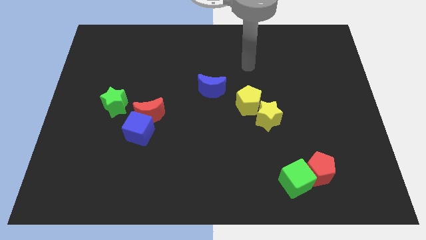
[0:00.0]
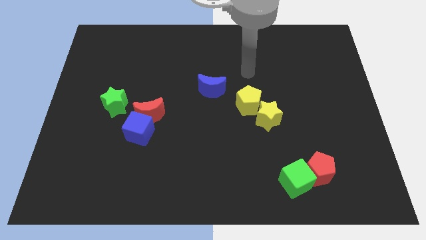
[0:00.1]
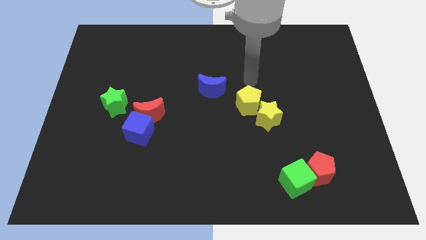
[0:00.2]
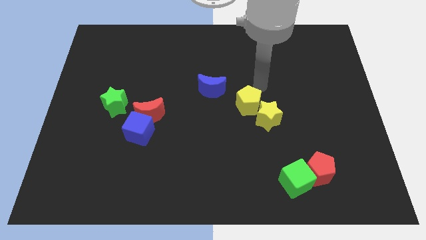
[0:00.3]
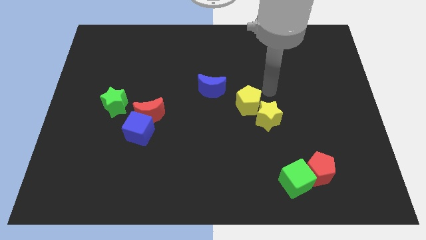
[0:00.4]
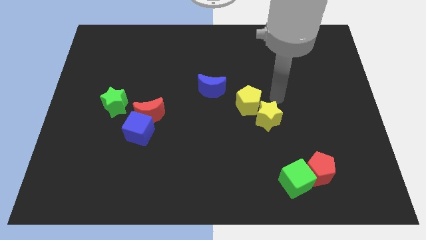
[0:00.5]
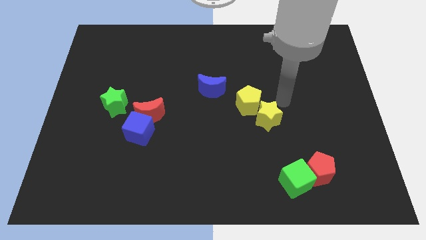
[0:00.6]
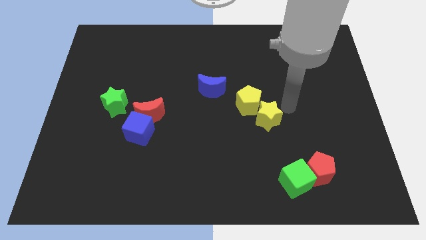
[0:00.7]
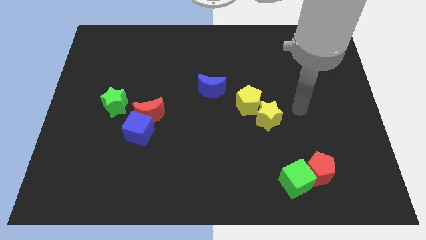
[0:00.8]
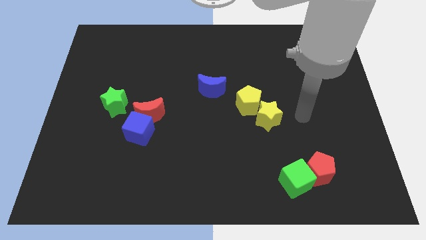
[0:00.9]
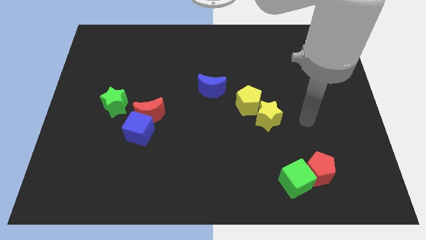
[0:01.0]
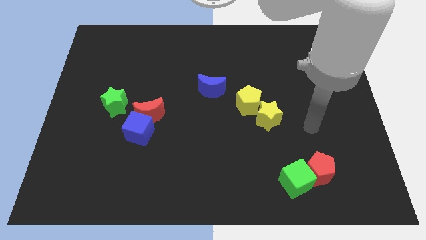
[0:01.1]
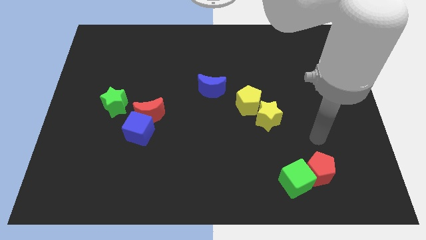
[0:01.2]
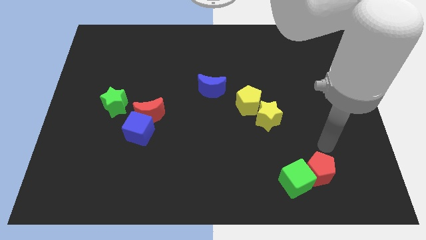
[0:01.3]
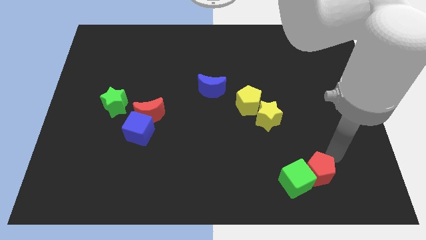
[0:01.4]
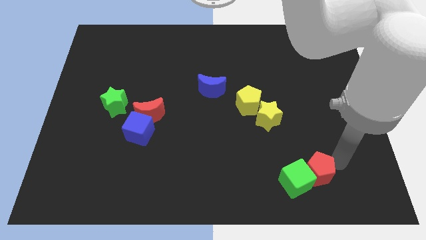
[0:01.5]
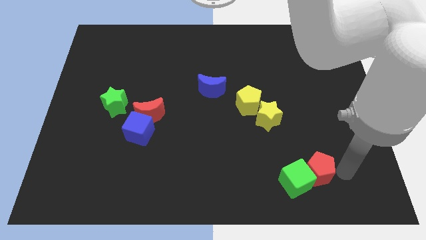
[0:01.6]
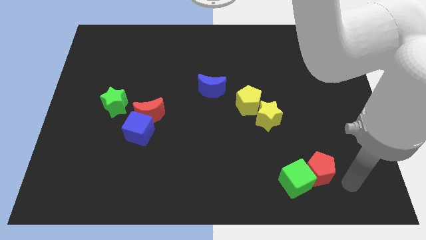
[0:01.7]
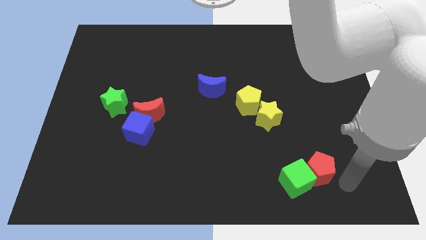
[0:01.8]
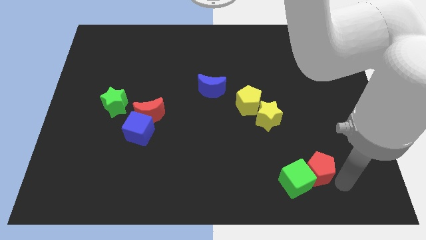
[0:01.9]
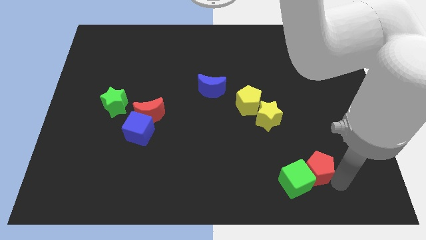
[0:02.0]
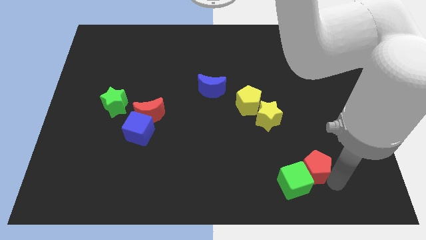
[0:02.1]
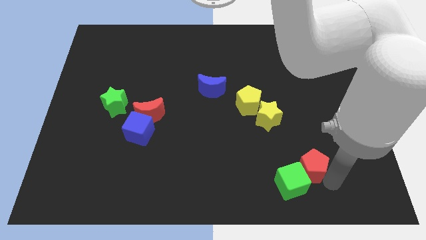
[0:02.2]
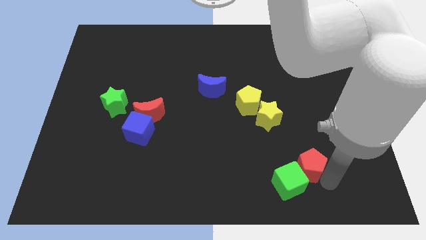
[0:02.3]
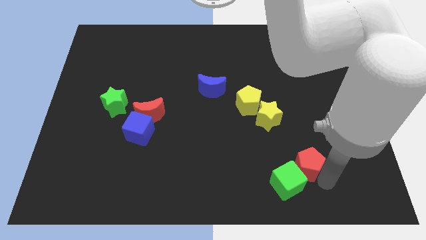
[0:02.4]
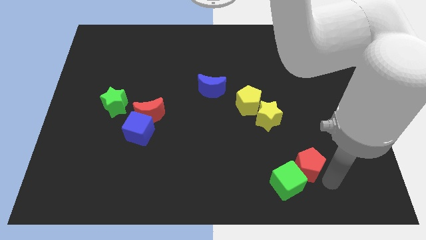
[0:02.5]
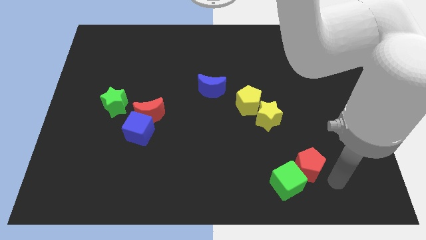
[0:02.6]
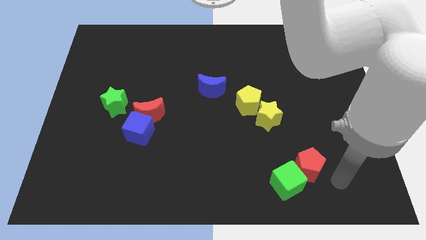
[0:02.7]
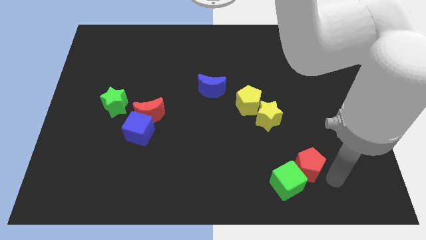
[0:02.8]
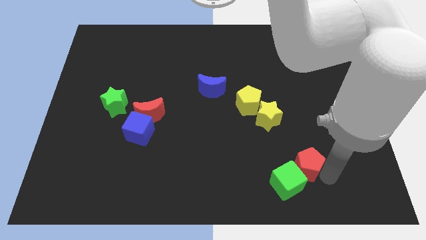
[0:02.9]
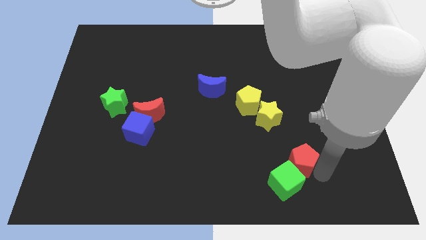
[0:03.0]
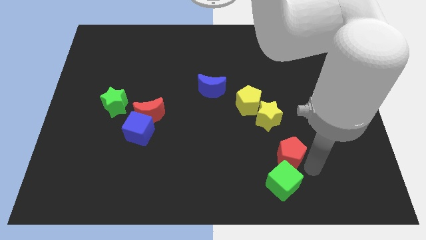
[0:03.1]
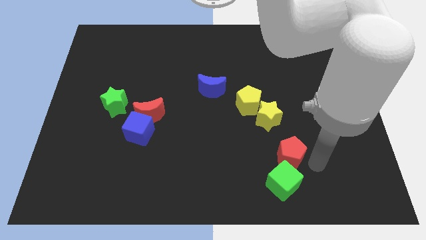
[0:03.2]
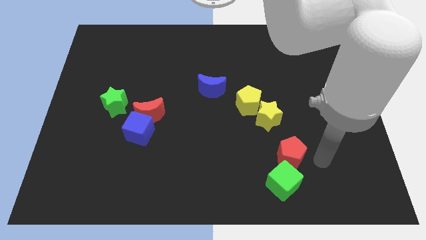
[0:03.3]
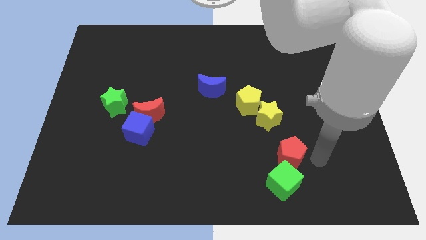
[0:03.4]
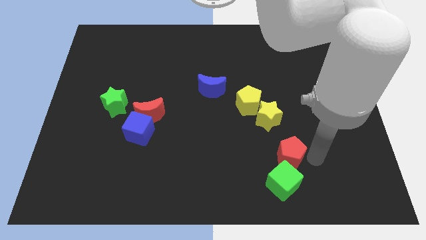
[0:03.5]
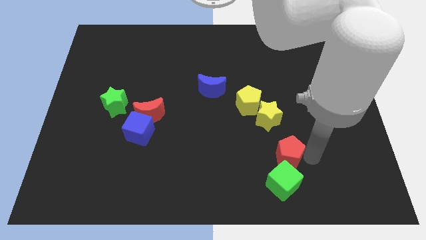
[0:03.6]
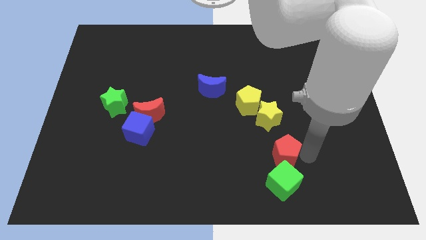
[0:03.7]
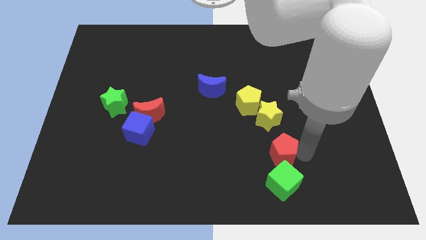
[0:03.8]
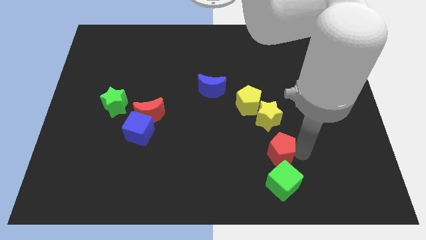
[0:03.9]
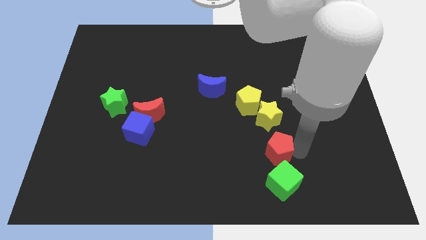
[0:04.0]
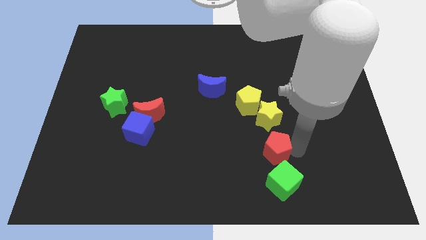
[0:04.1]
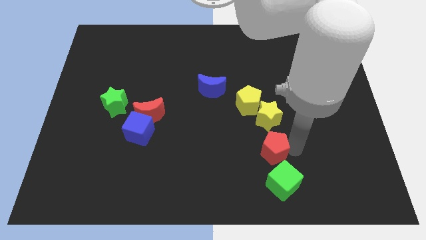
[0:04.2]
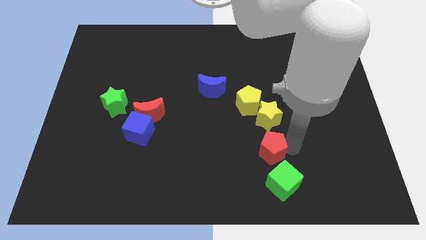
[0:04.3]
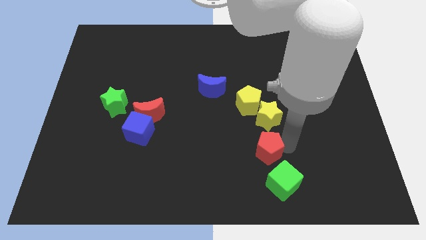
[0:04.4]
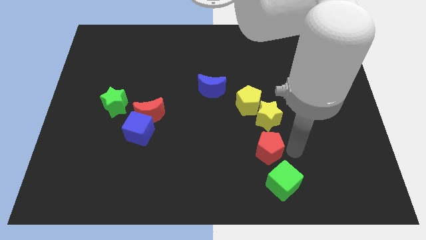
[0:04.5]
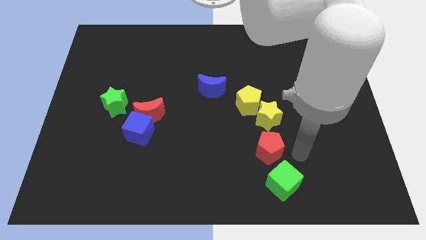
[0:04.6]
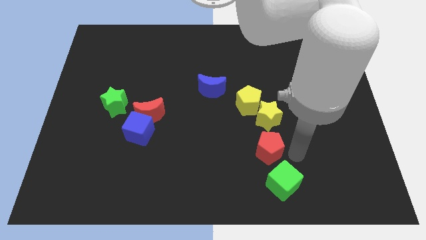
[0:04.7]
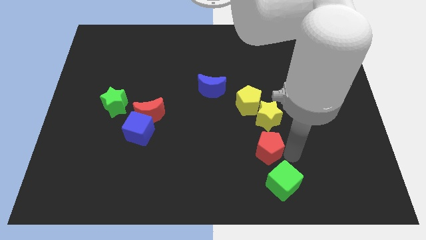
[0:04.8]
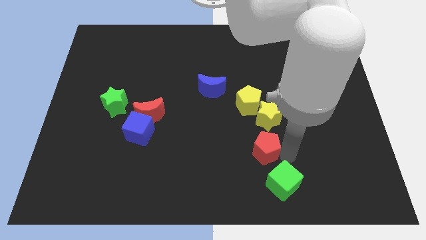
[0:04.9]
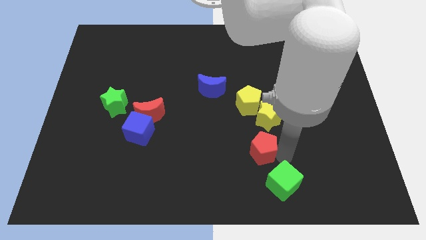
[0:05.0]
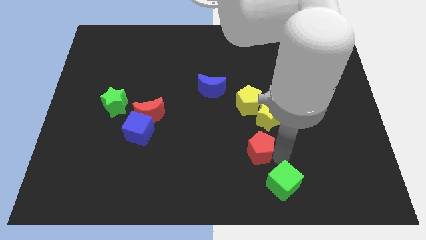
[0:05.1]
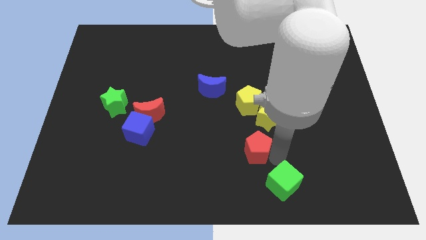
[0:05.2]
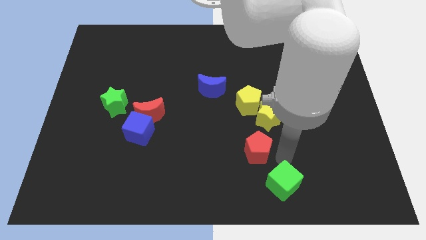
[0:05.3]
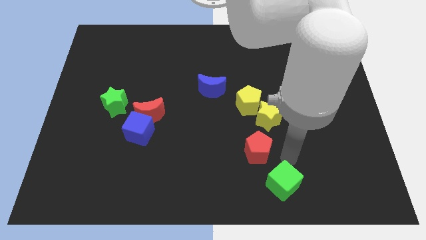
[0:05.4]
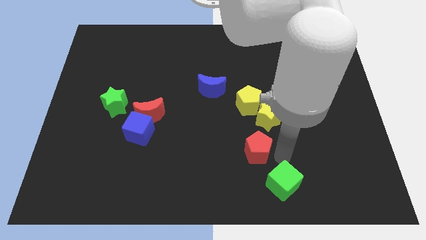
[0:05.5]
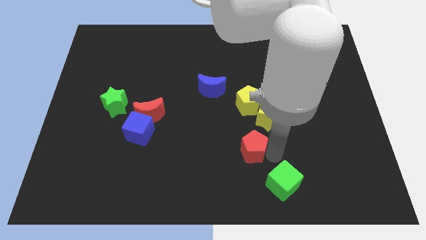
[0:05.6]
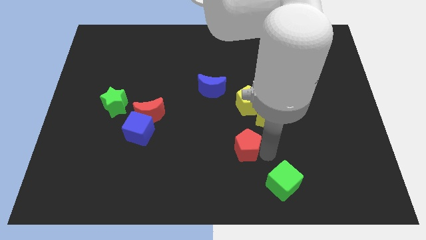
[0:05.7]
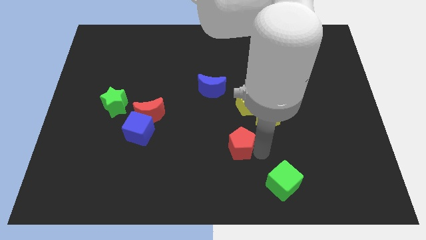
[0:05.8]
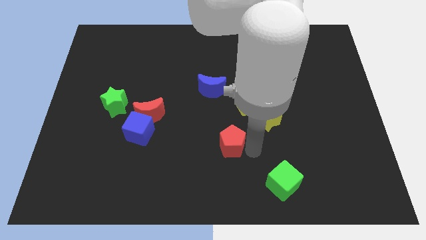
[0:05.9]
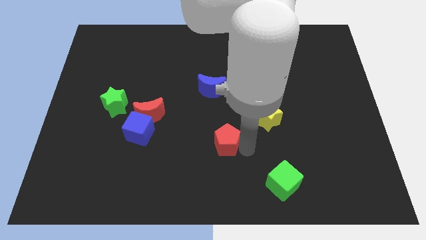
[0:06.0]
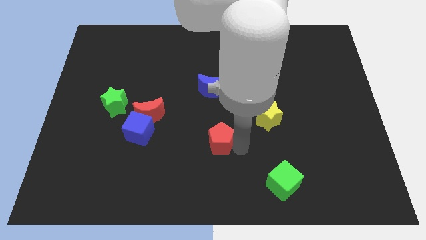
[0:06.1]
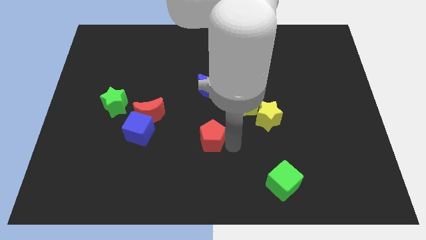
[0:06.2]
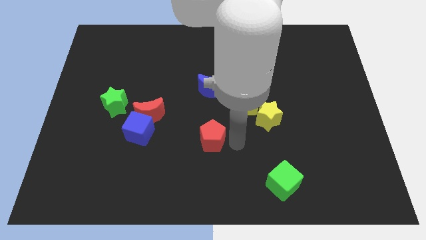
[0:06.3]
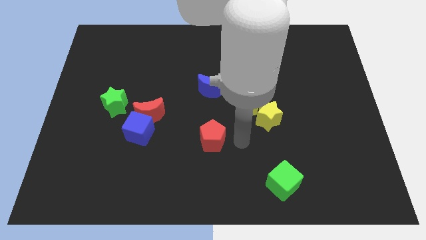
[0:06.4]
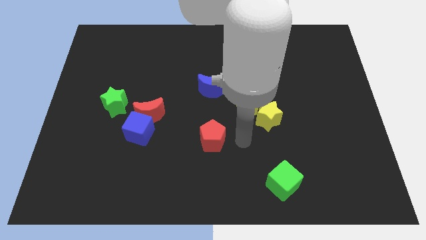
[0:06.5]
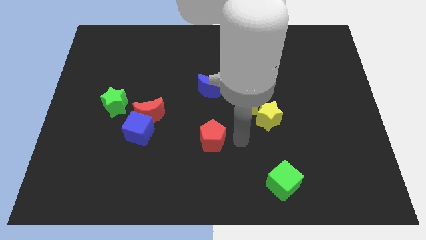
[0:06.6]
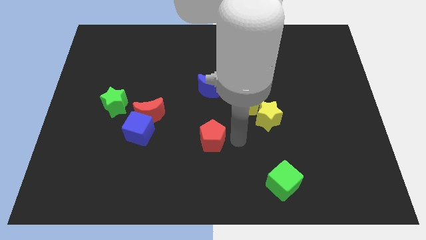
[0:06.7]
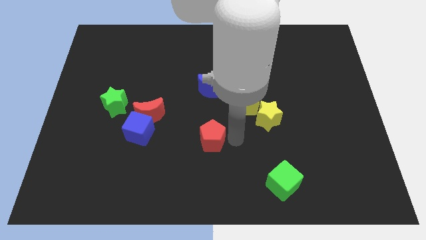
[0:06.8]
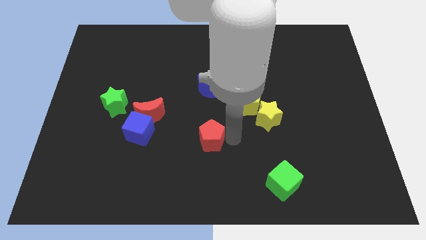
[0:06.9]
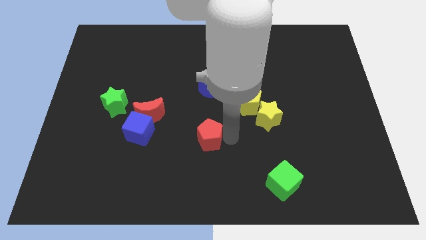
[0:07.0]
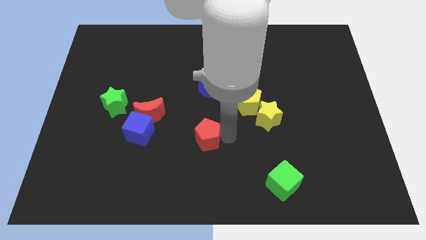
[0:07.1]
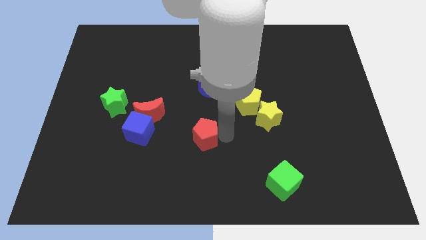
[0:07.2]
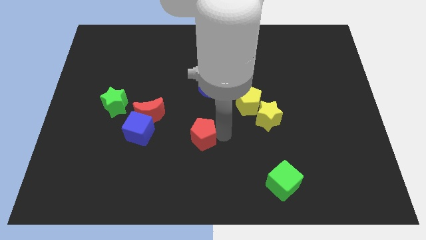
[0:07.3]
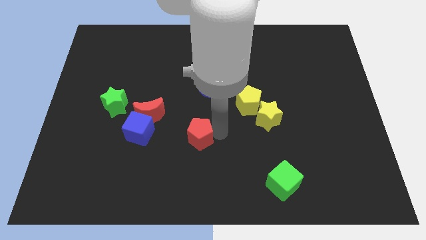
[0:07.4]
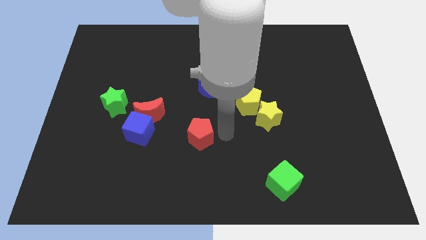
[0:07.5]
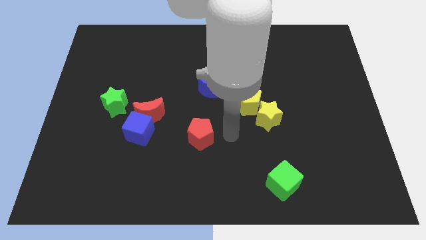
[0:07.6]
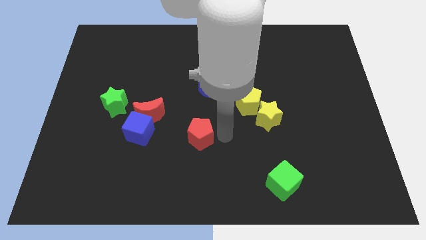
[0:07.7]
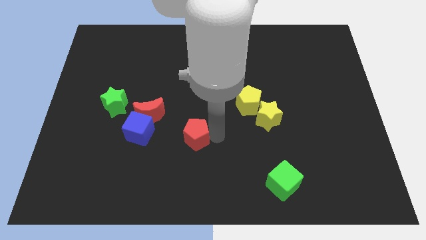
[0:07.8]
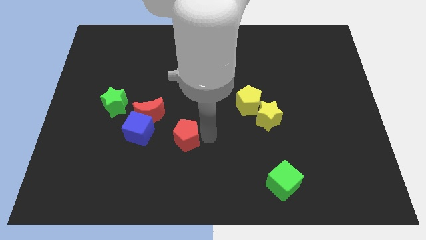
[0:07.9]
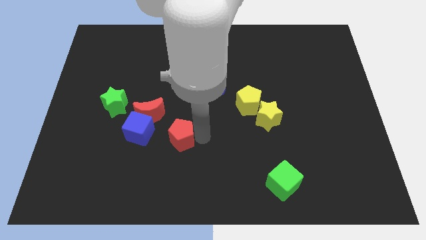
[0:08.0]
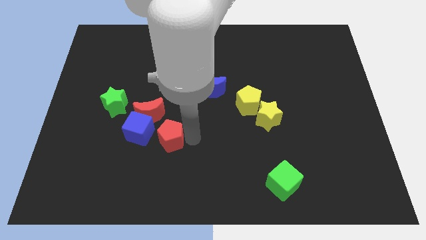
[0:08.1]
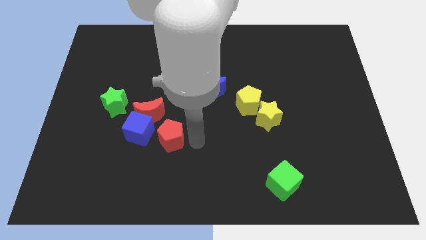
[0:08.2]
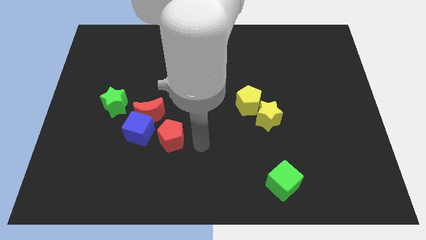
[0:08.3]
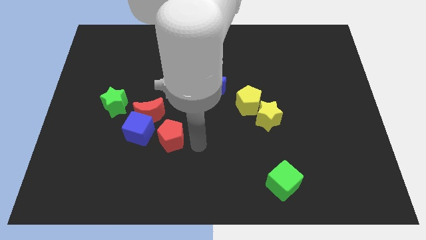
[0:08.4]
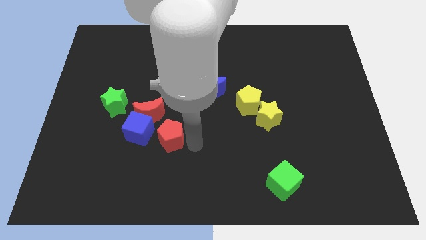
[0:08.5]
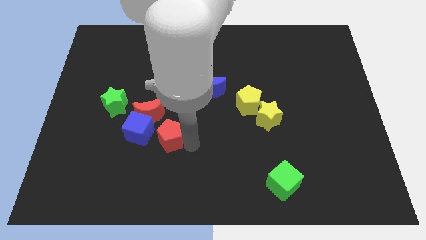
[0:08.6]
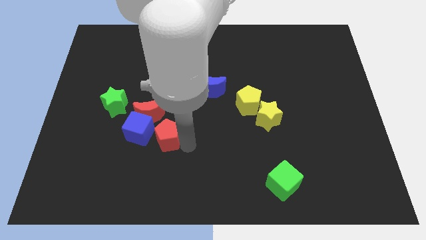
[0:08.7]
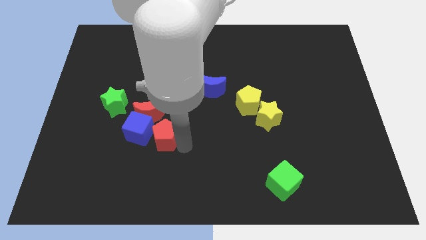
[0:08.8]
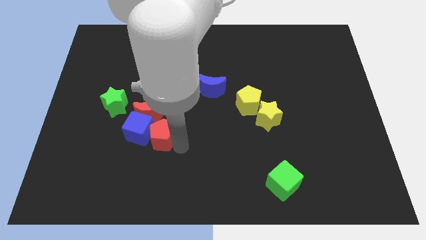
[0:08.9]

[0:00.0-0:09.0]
slide the red pentagon next to the blue cube
